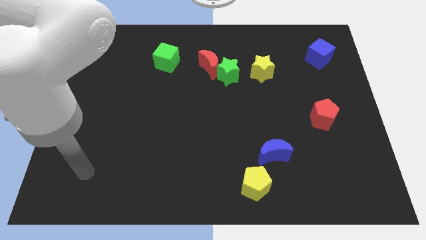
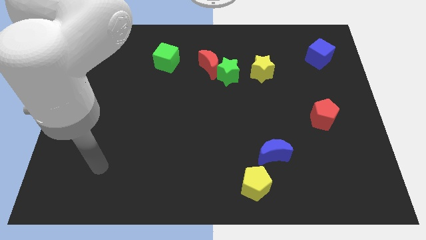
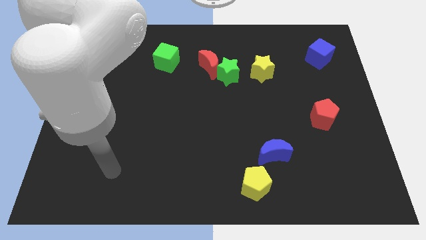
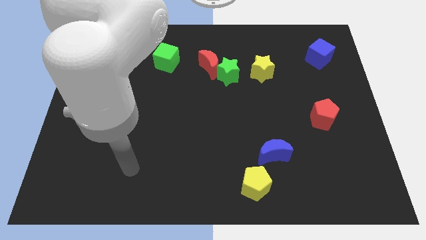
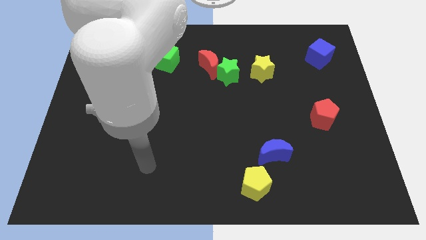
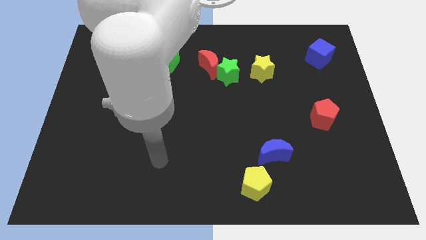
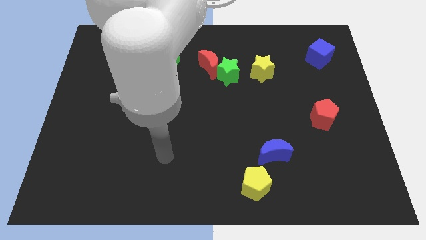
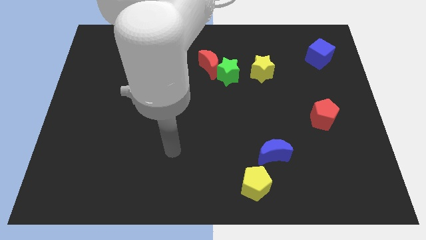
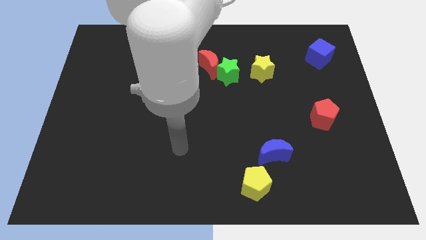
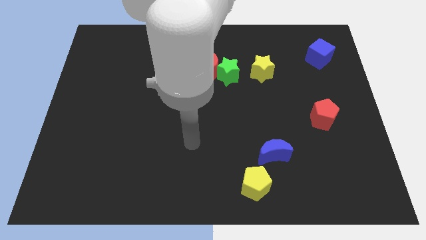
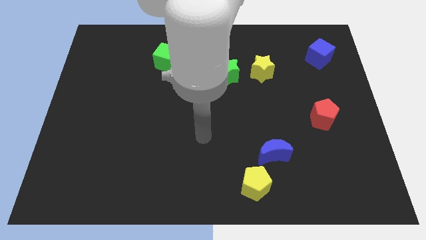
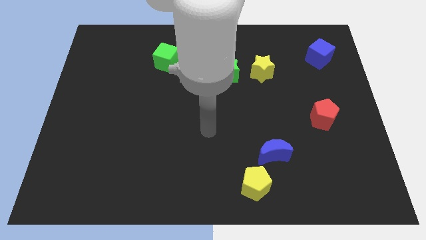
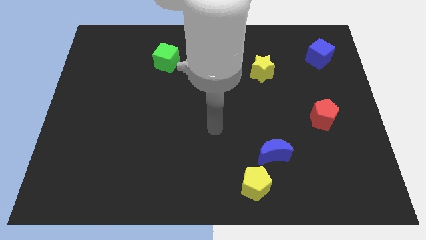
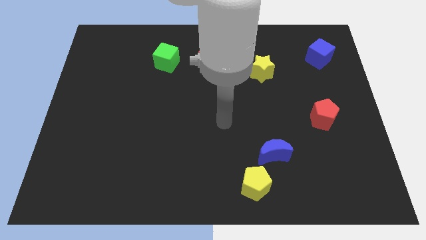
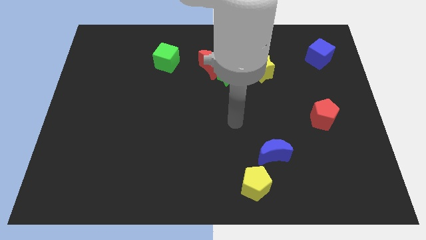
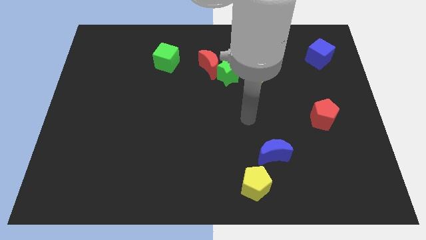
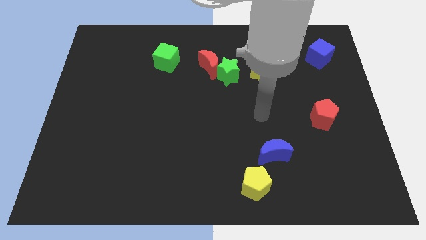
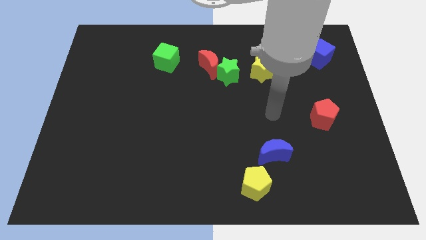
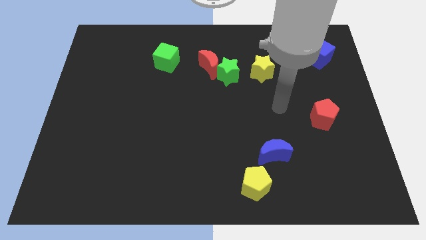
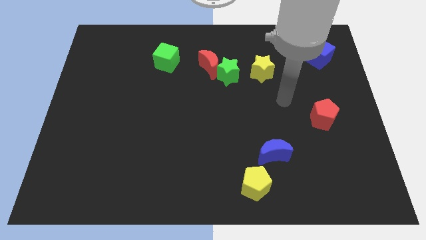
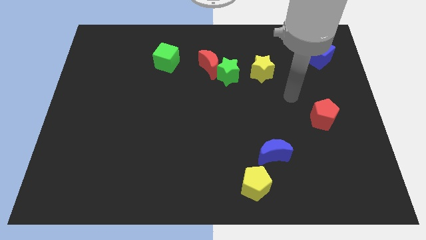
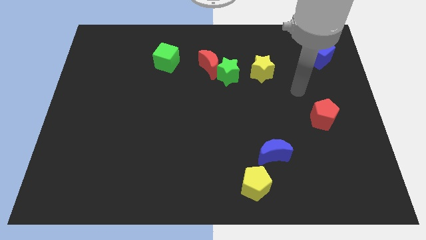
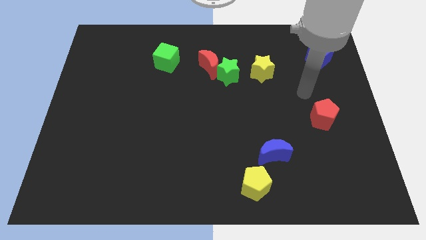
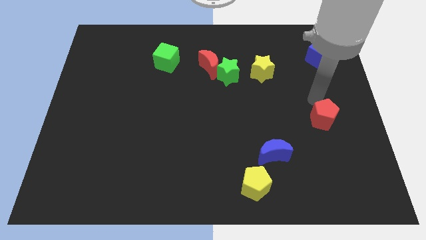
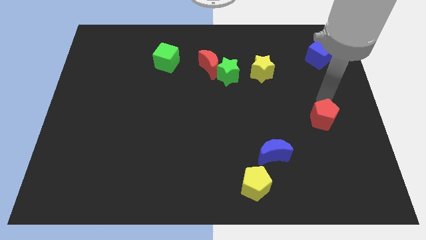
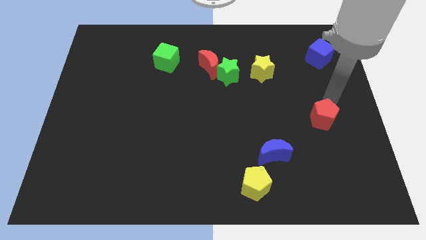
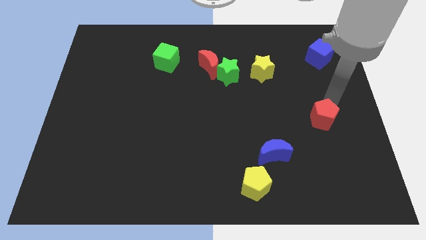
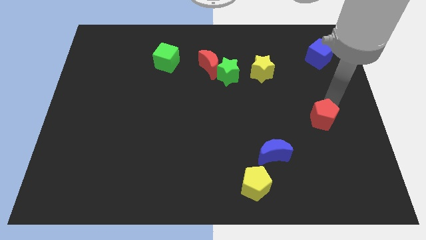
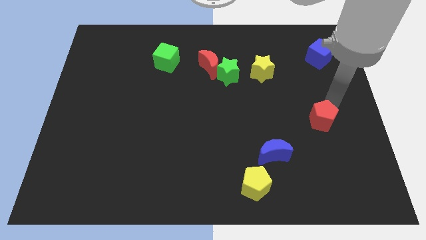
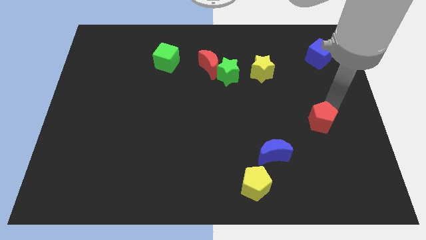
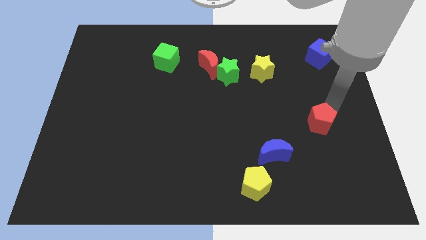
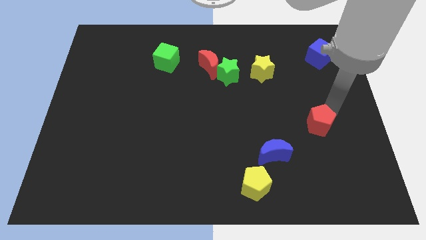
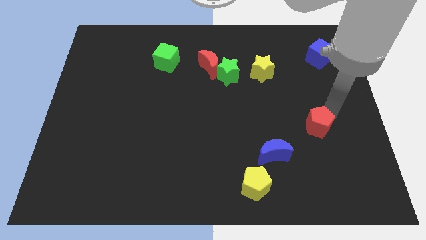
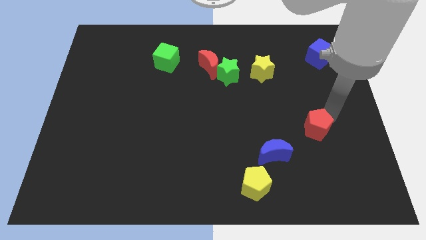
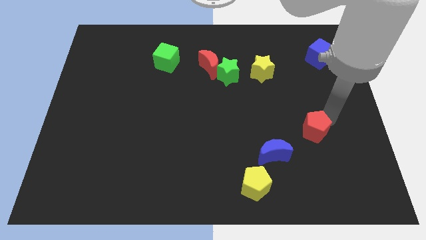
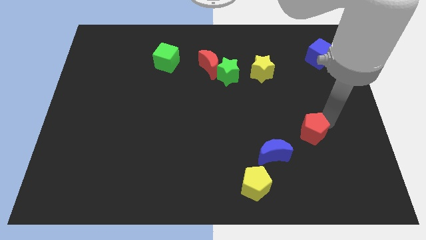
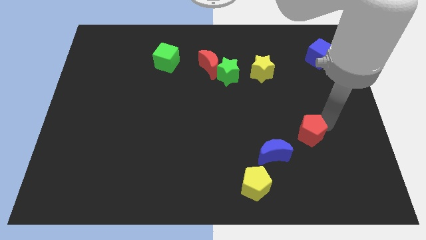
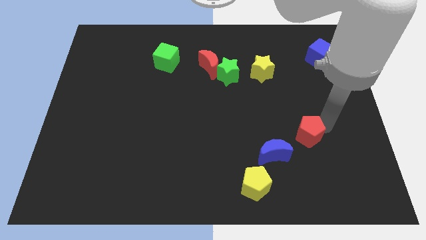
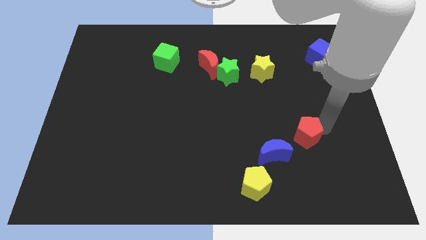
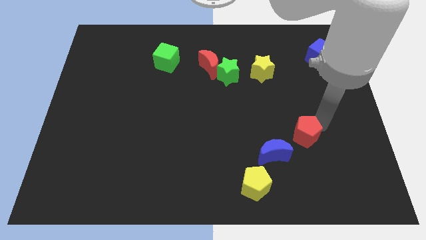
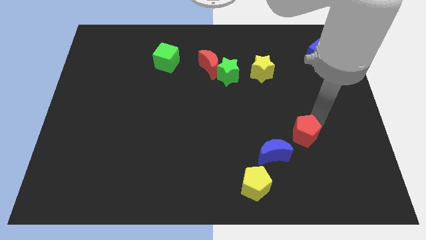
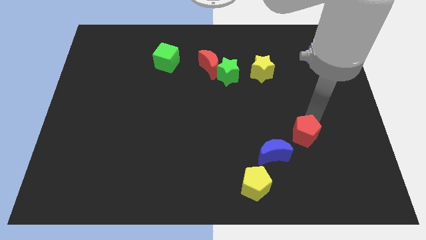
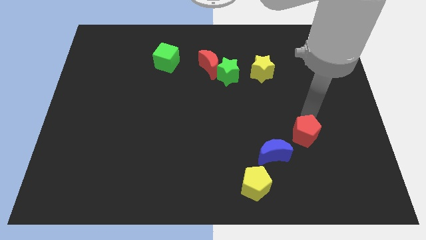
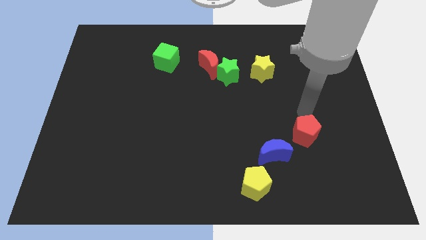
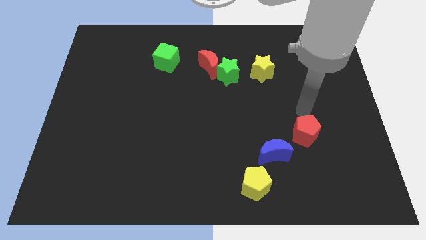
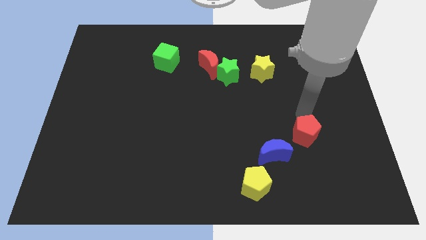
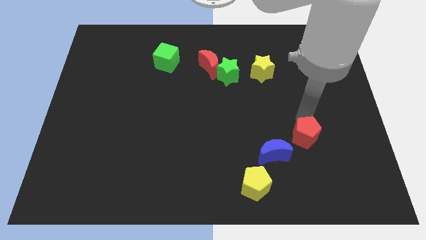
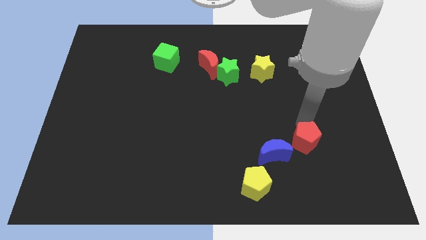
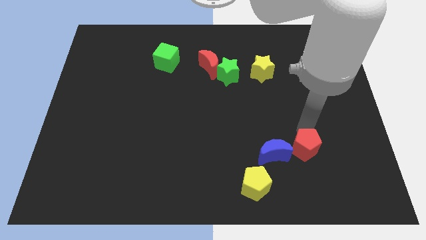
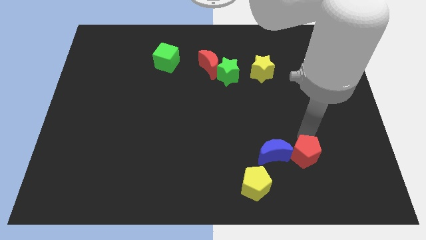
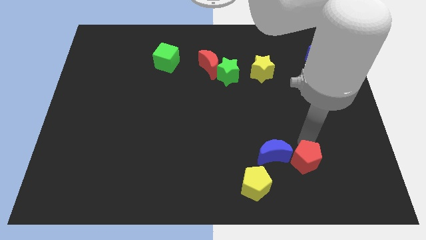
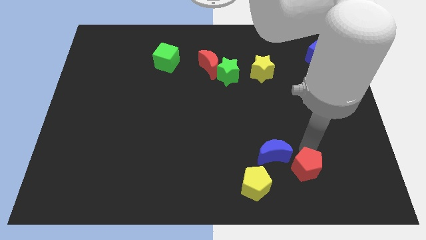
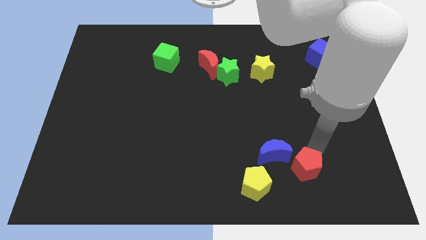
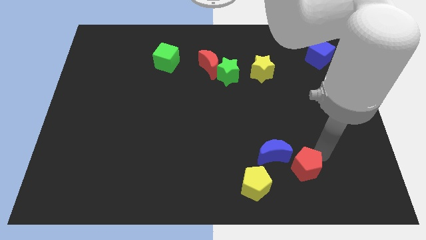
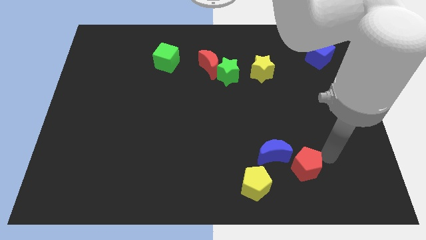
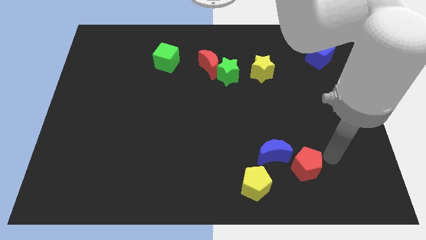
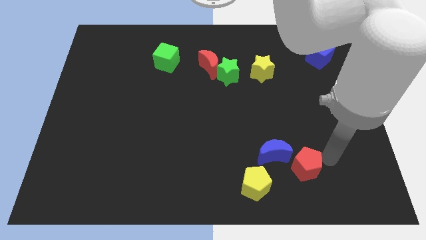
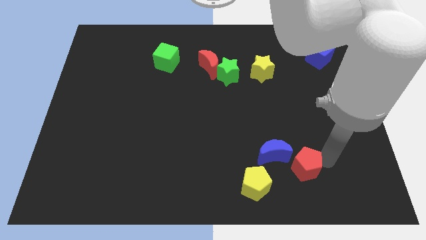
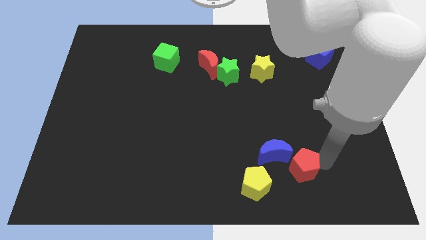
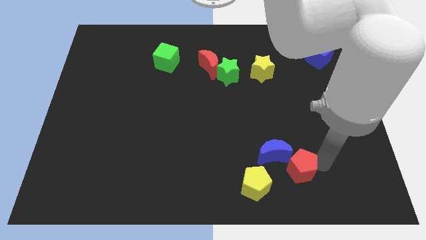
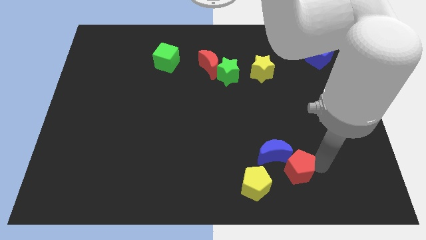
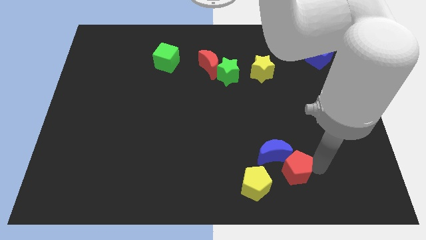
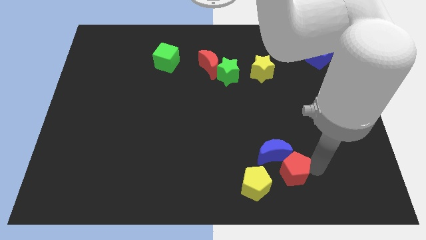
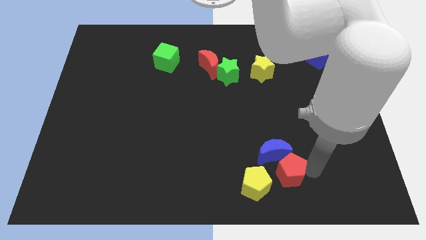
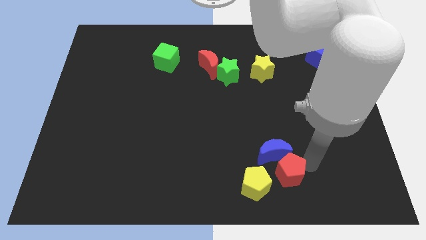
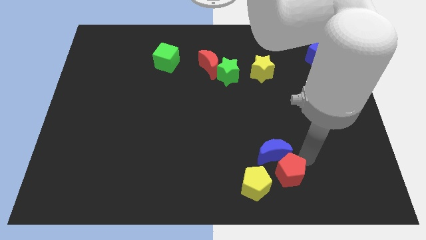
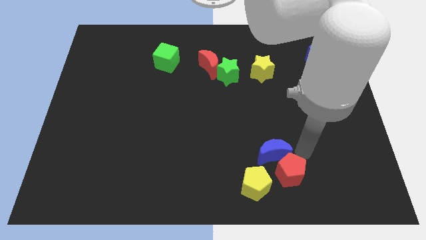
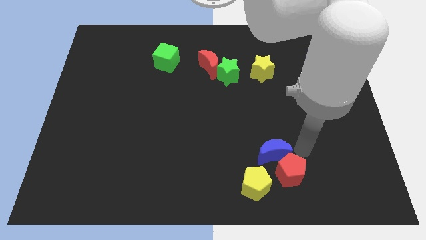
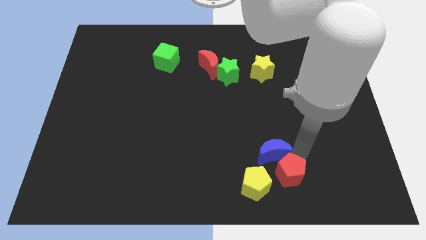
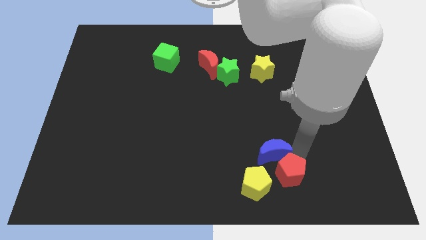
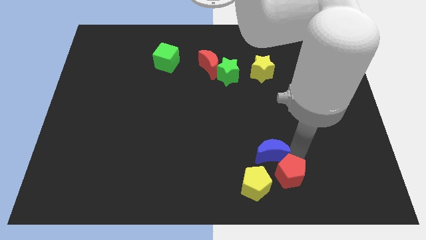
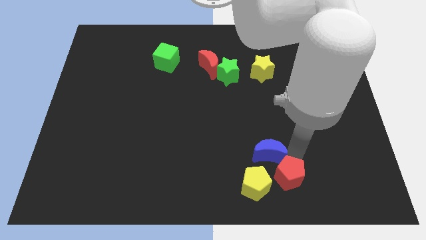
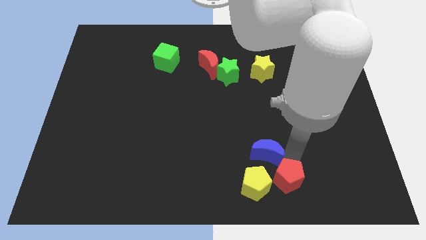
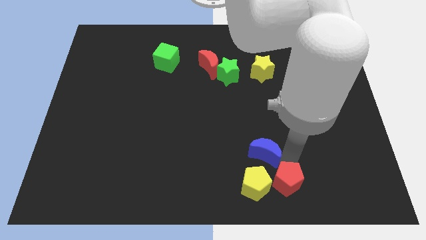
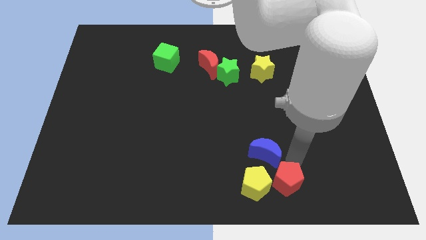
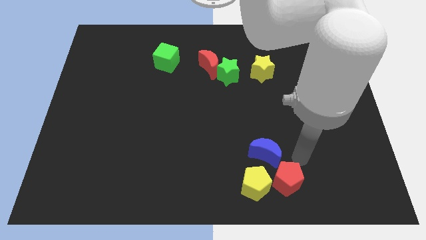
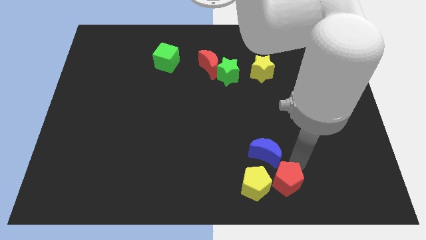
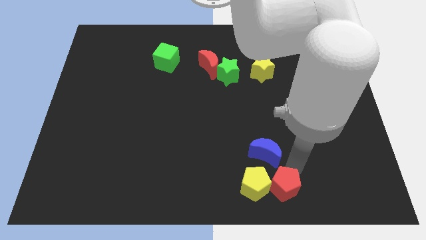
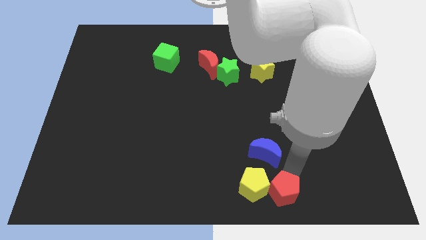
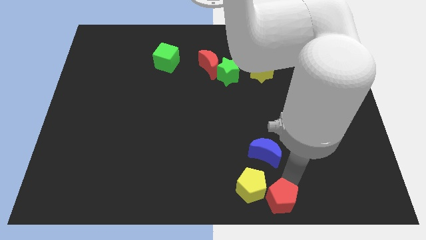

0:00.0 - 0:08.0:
put the red pentagon to the bottom side
